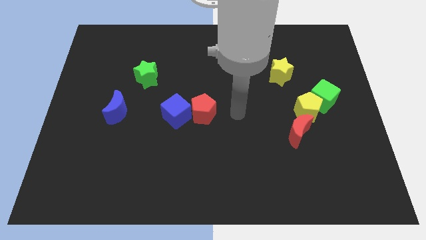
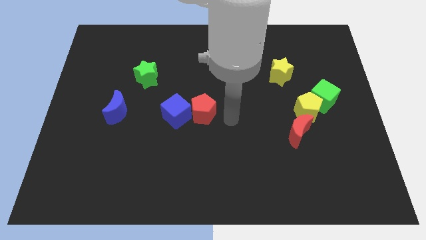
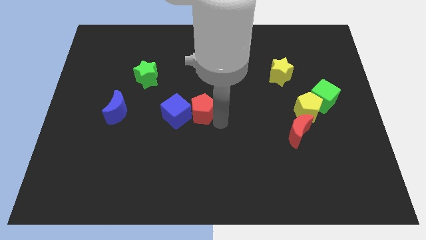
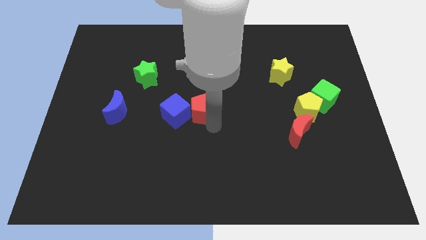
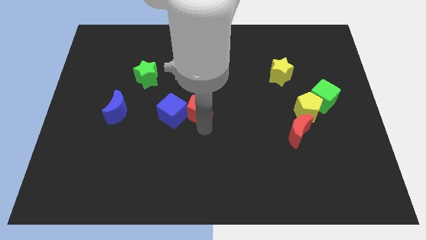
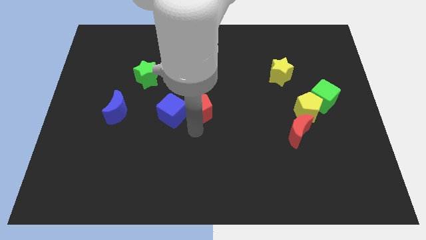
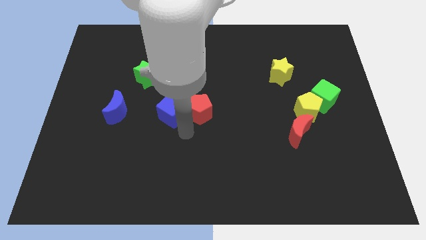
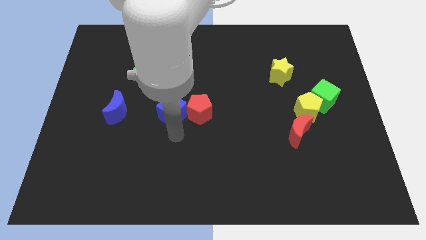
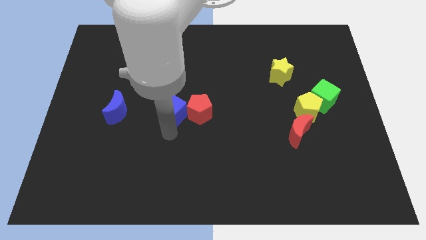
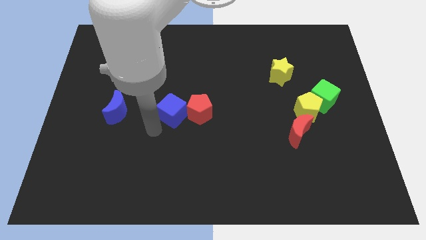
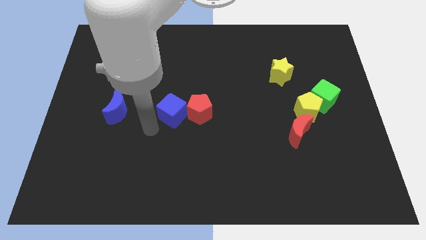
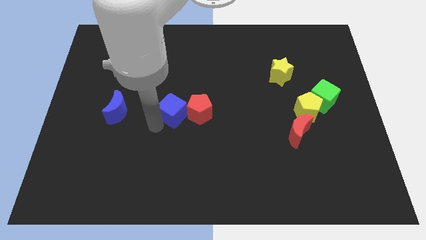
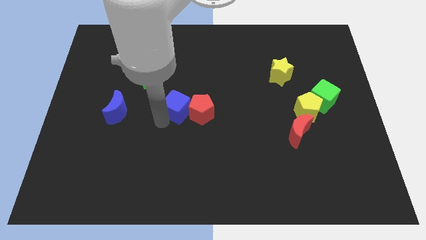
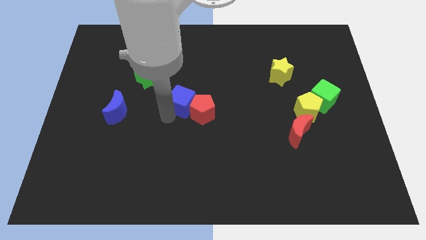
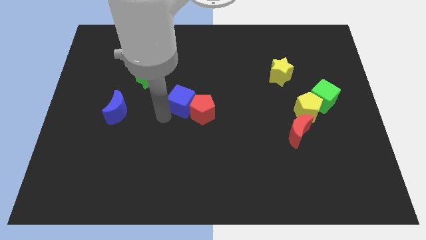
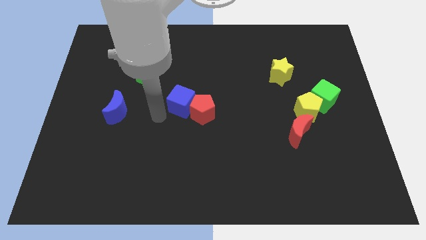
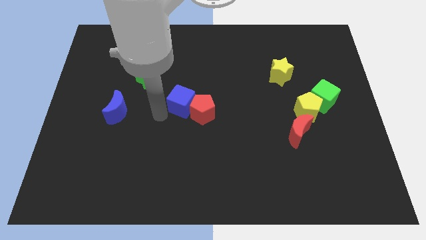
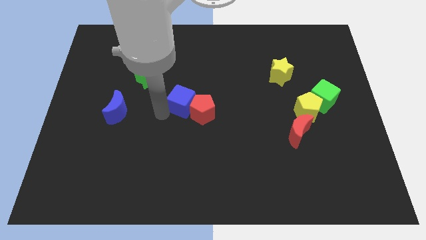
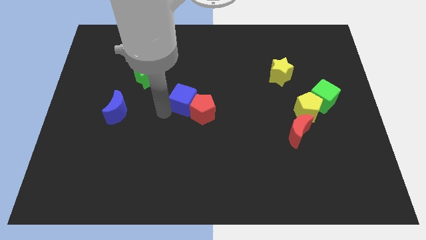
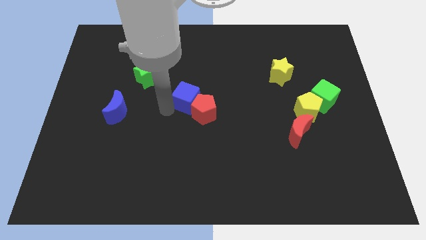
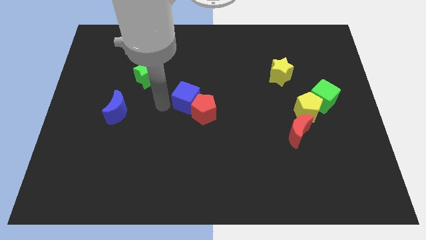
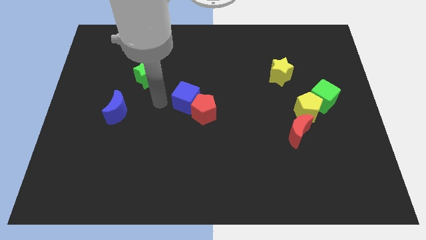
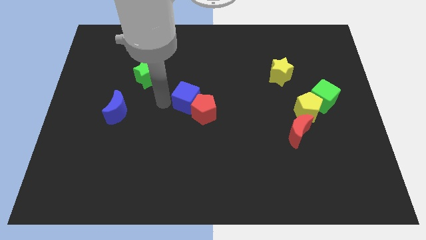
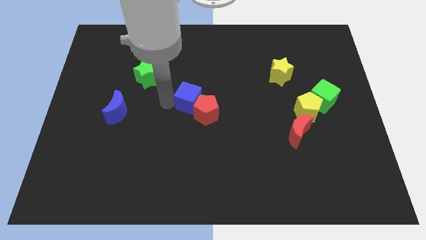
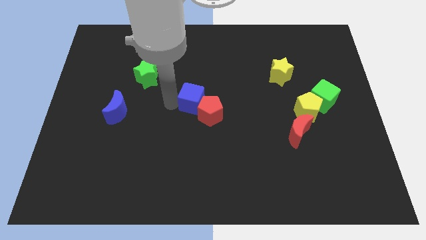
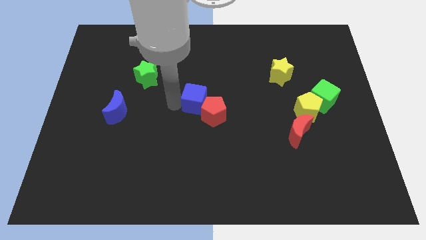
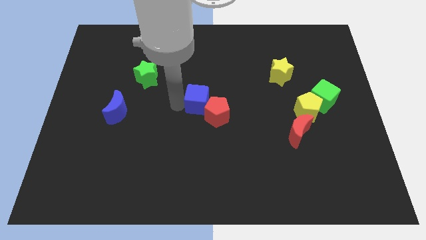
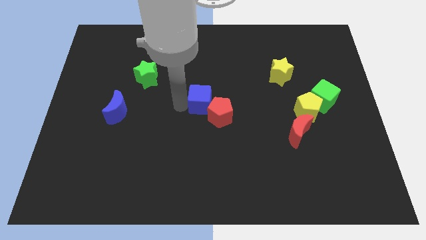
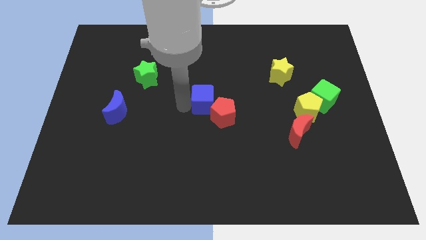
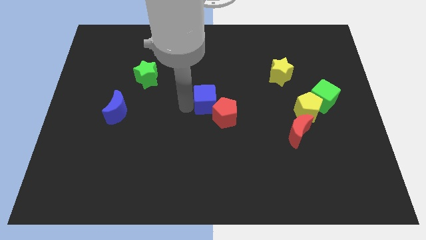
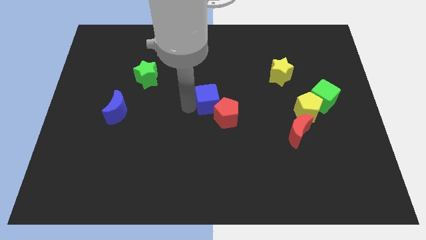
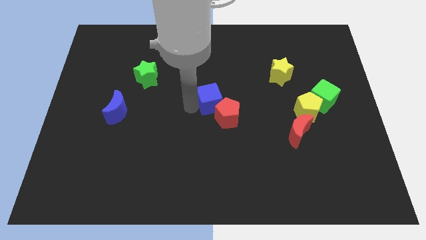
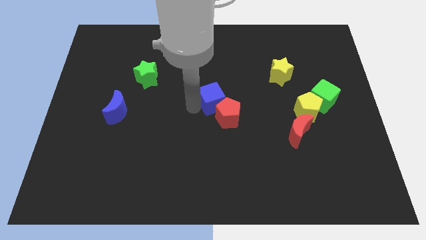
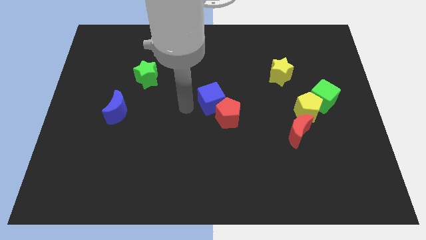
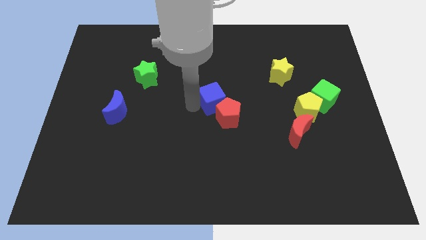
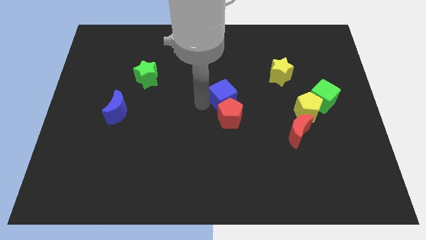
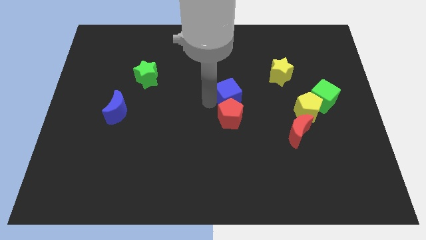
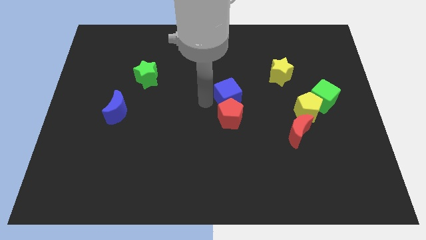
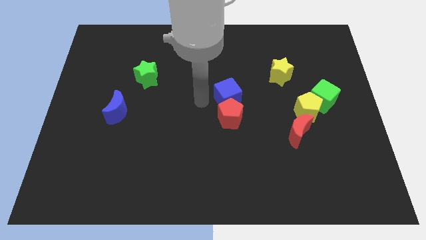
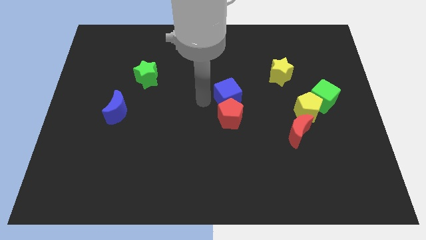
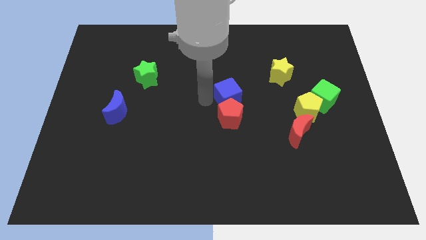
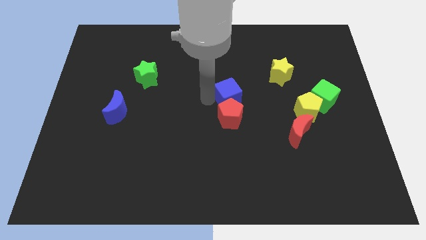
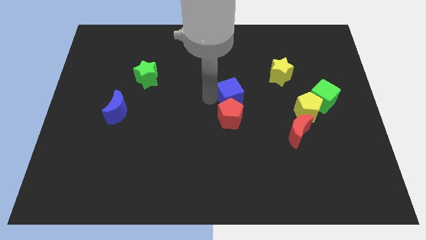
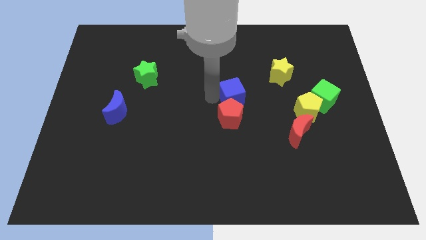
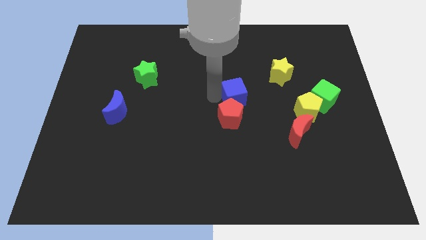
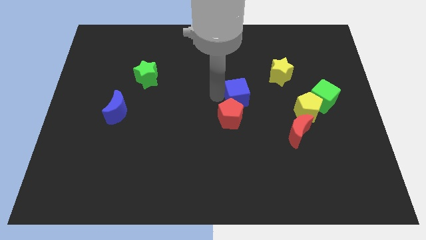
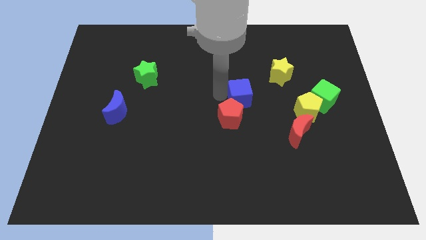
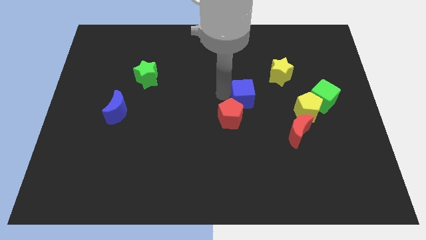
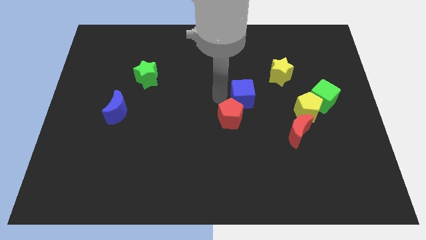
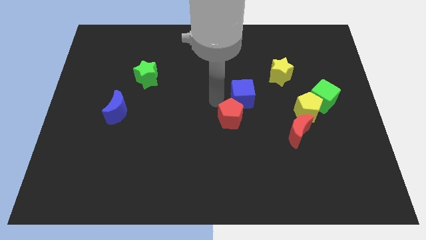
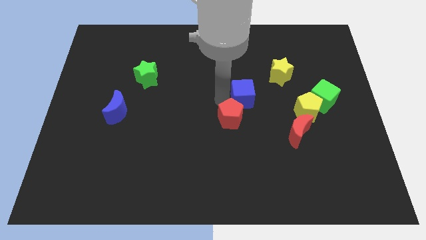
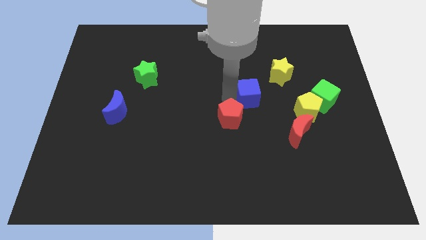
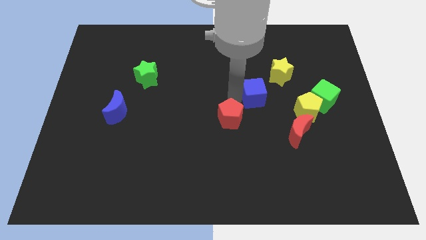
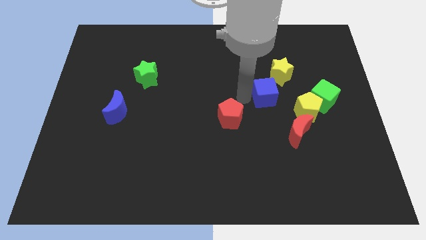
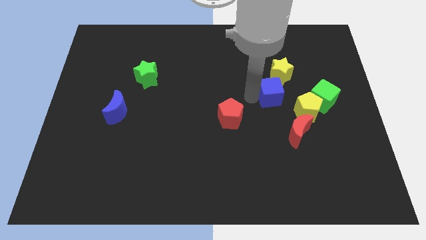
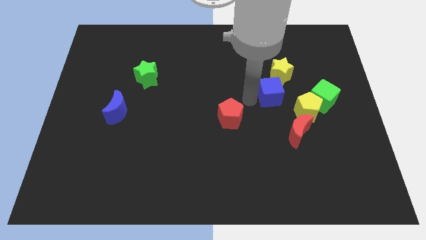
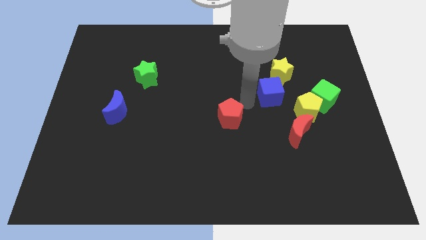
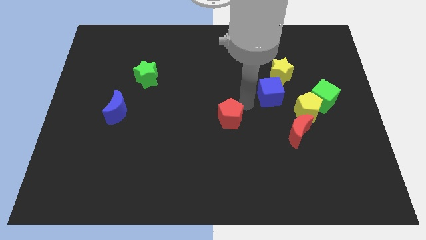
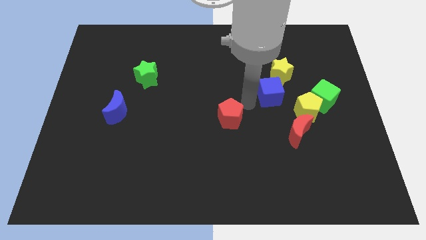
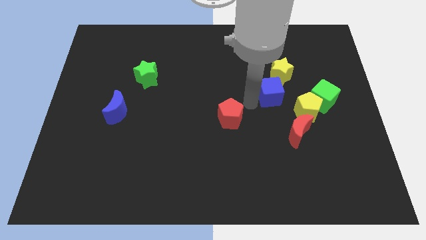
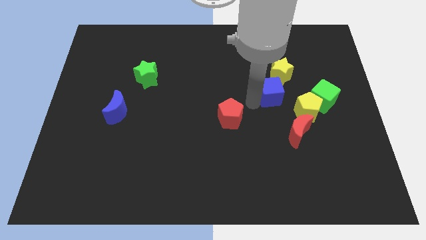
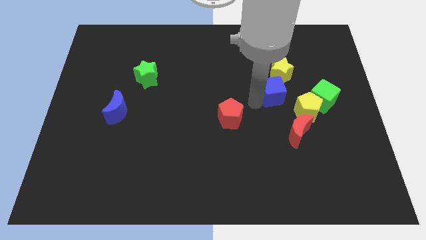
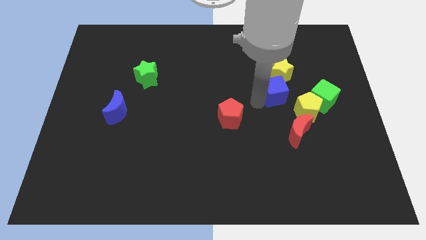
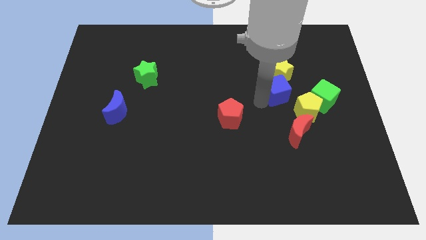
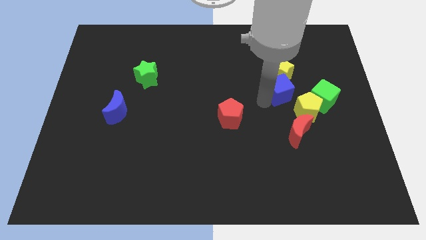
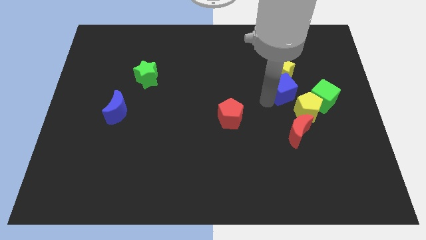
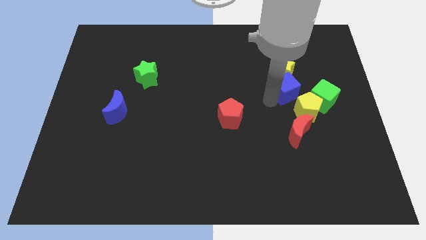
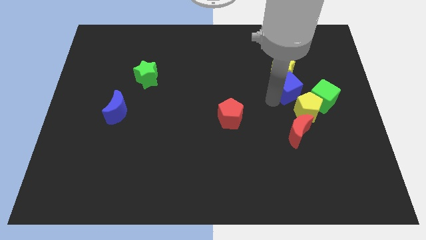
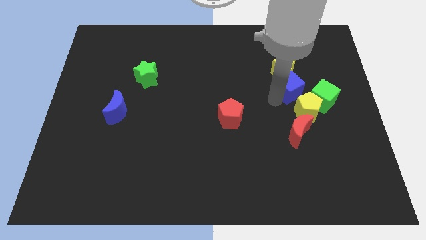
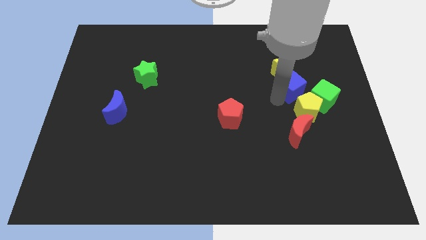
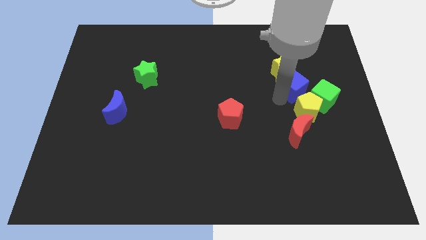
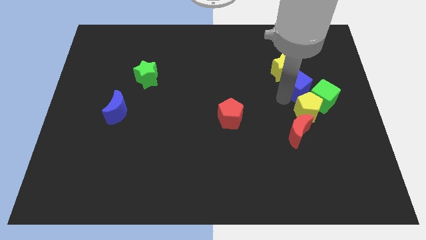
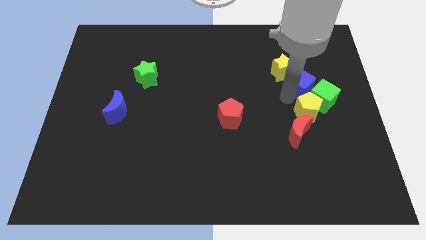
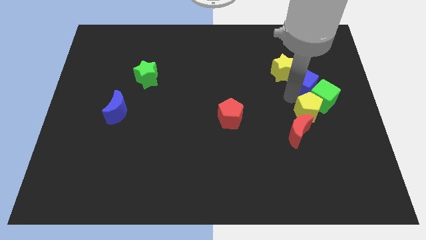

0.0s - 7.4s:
push the blue cube above the green cube
